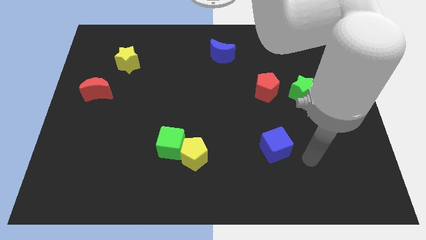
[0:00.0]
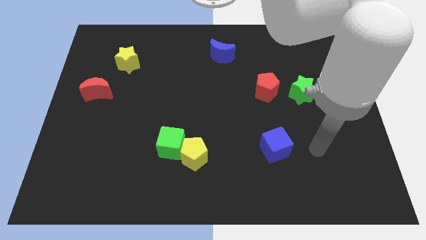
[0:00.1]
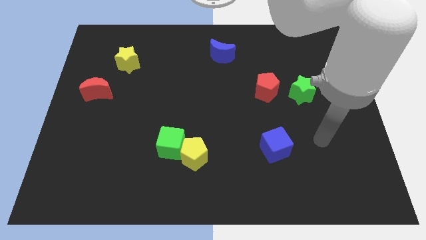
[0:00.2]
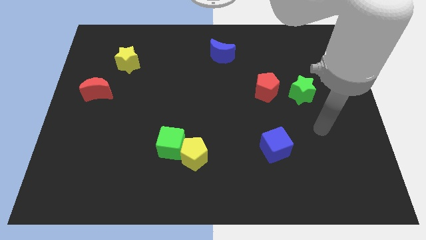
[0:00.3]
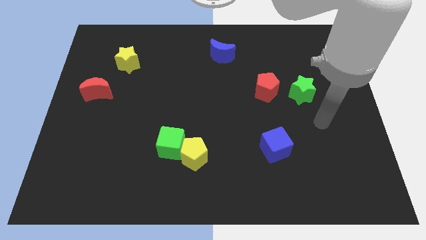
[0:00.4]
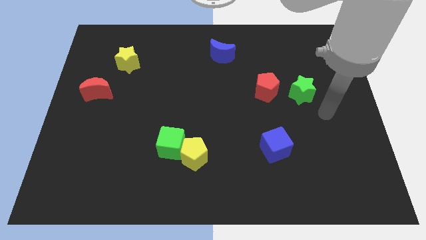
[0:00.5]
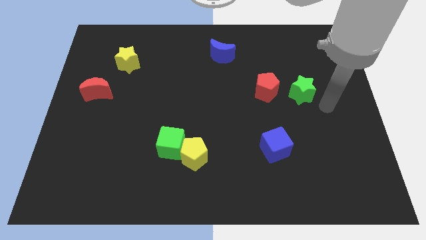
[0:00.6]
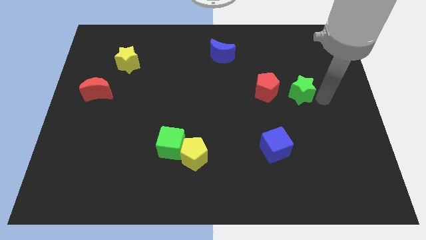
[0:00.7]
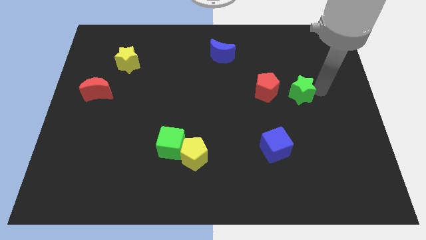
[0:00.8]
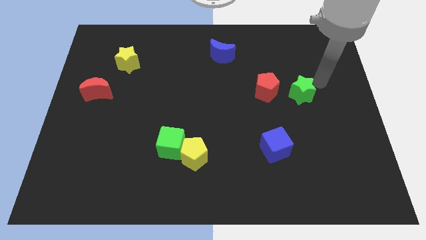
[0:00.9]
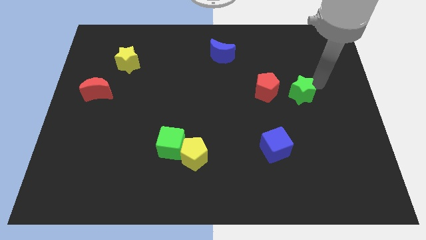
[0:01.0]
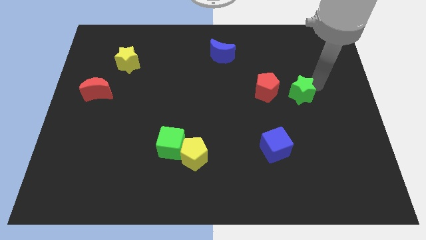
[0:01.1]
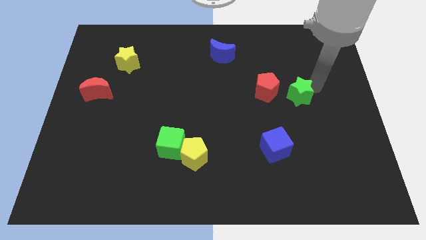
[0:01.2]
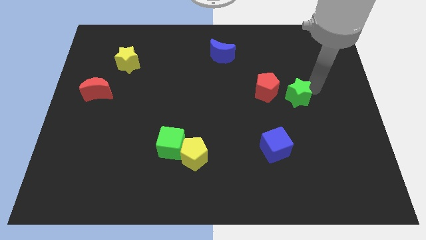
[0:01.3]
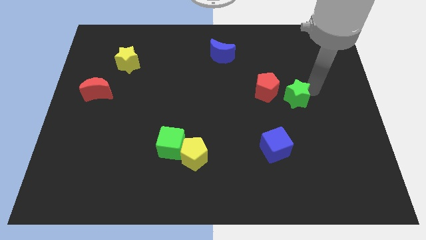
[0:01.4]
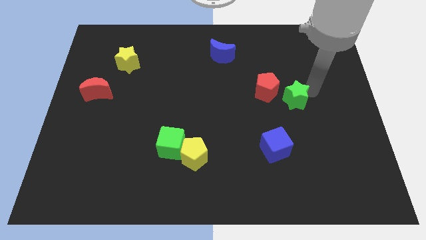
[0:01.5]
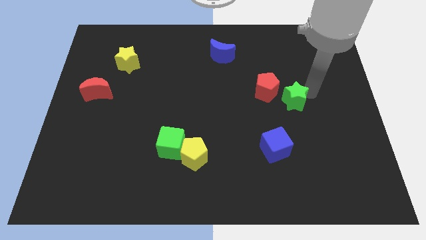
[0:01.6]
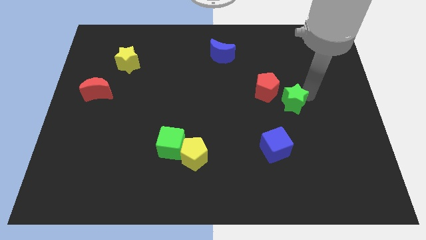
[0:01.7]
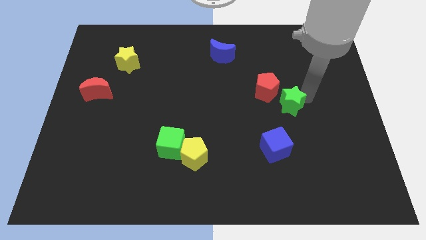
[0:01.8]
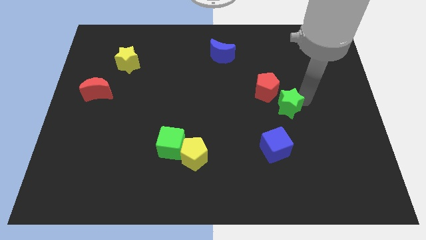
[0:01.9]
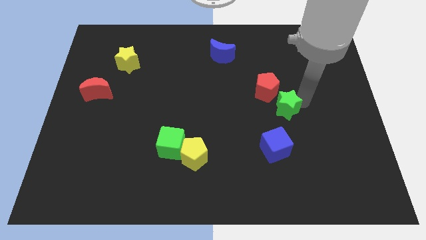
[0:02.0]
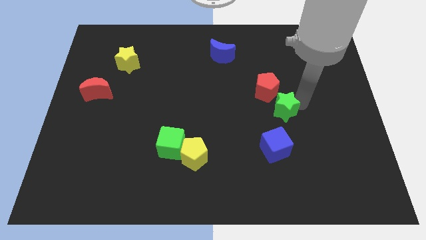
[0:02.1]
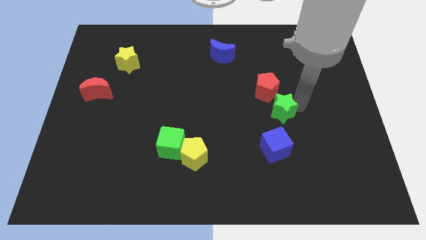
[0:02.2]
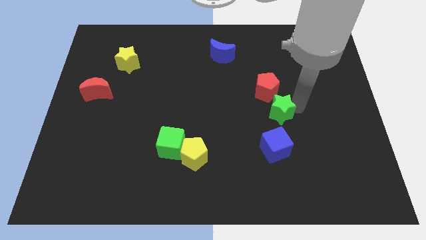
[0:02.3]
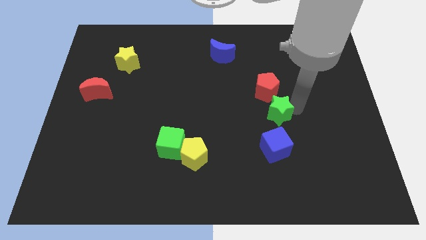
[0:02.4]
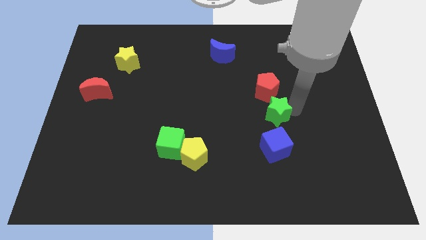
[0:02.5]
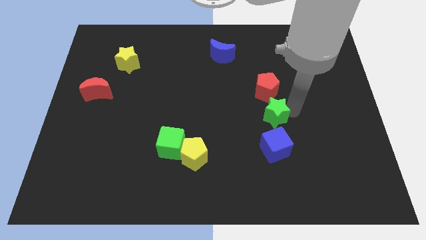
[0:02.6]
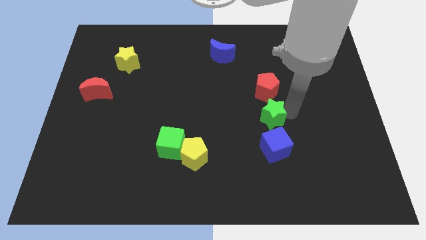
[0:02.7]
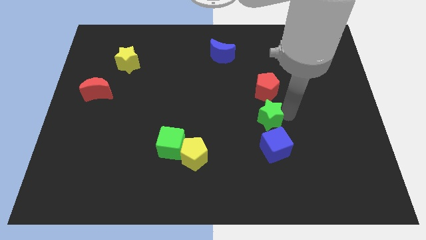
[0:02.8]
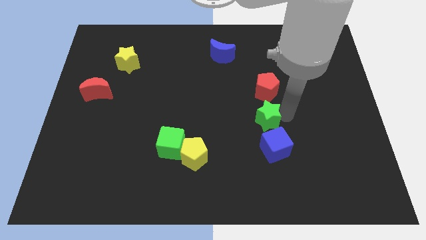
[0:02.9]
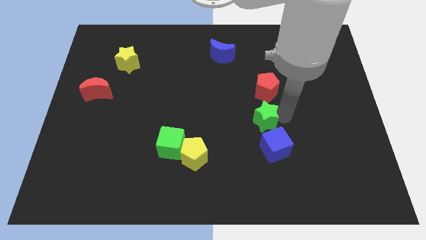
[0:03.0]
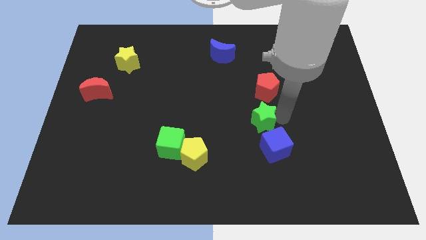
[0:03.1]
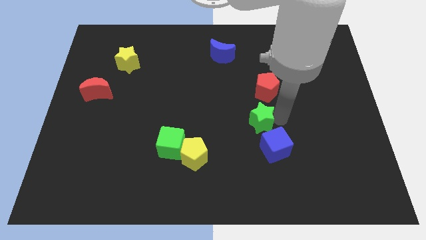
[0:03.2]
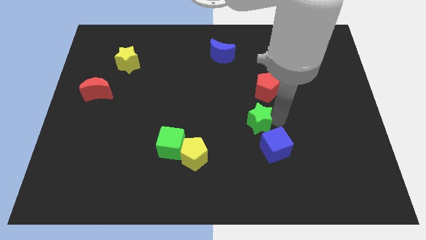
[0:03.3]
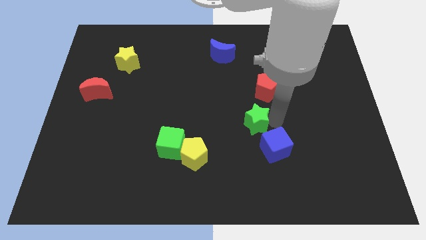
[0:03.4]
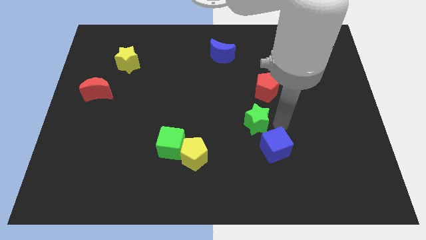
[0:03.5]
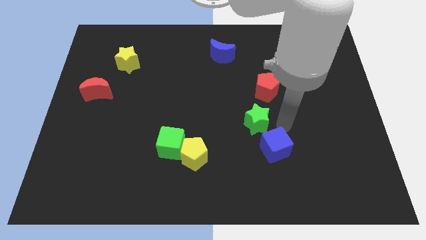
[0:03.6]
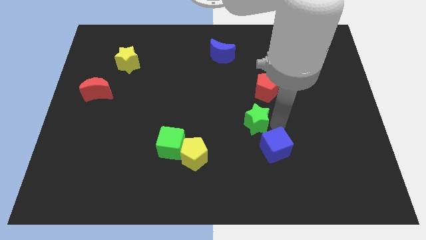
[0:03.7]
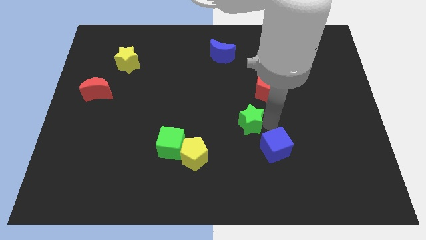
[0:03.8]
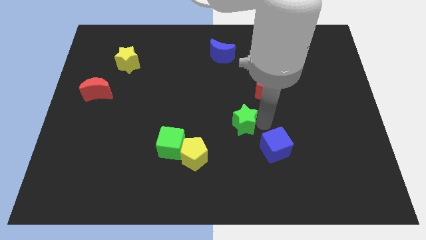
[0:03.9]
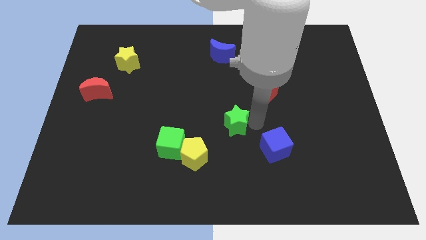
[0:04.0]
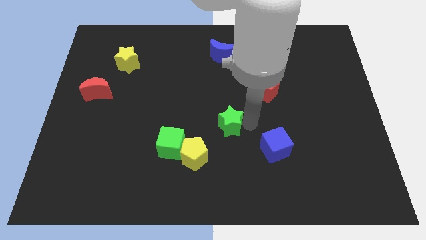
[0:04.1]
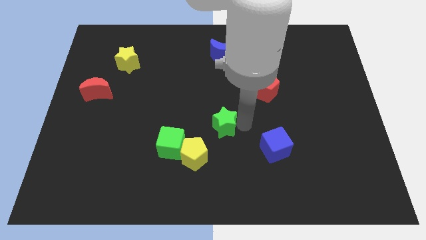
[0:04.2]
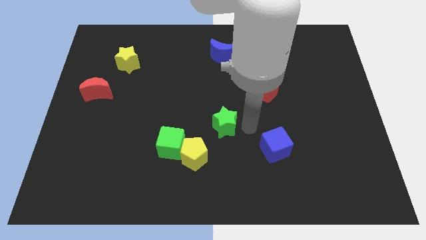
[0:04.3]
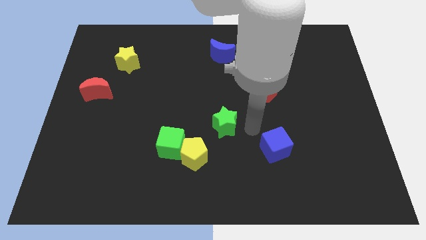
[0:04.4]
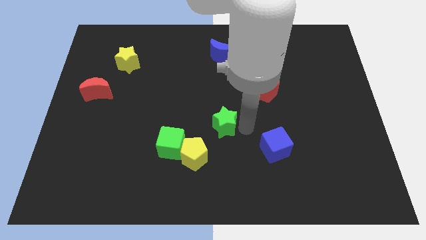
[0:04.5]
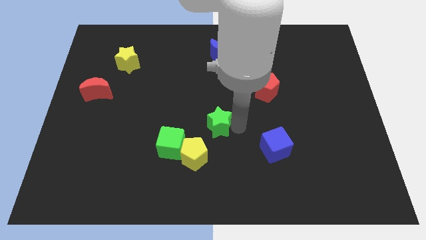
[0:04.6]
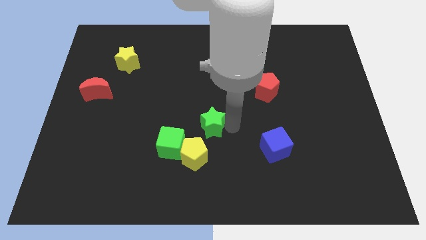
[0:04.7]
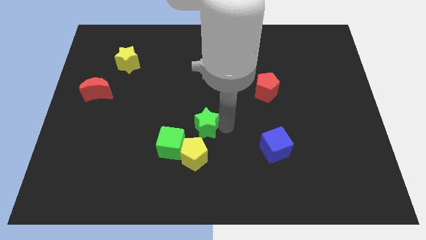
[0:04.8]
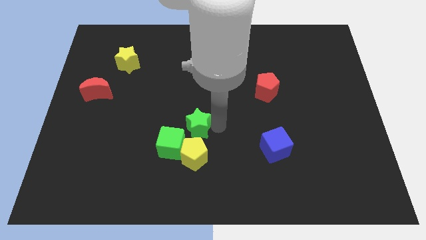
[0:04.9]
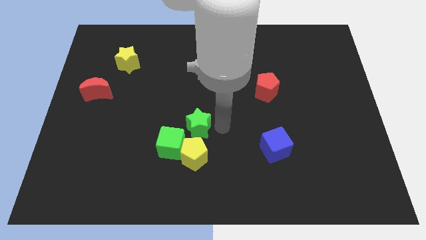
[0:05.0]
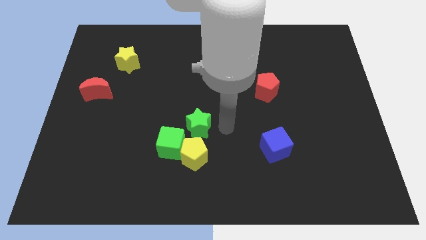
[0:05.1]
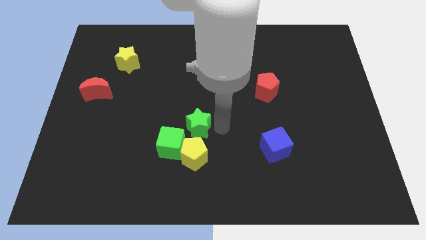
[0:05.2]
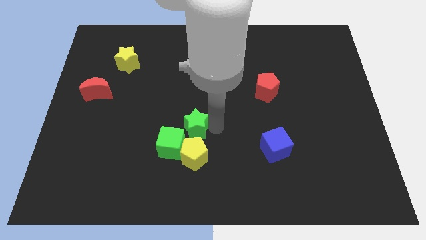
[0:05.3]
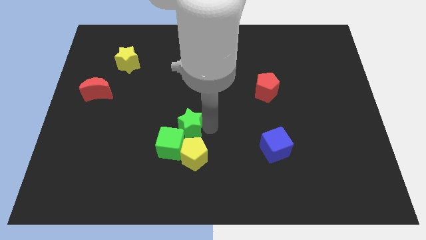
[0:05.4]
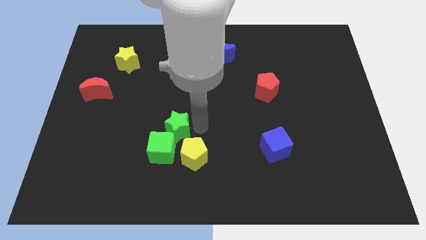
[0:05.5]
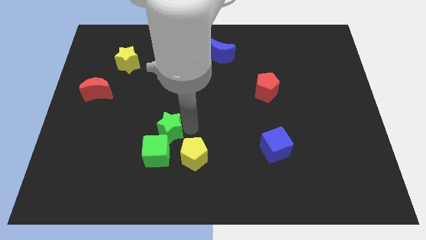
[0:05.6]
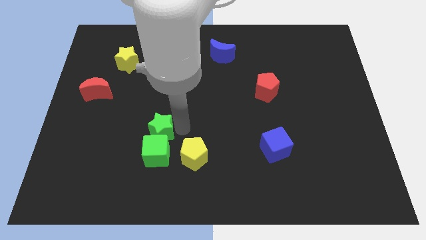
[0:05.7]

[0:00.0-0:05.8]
move the green star diagonally up and to the left of the green cube

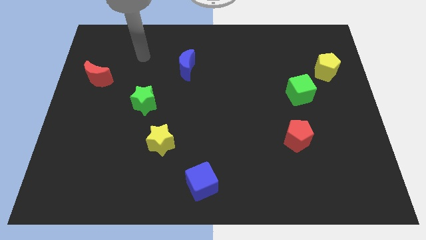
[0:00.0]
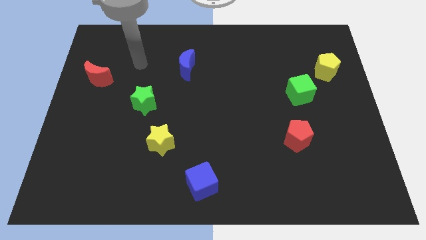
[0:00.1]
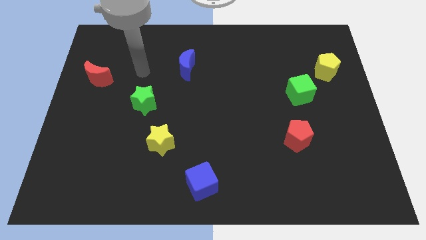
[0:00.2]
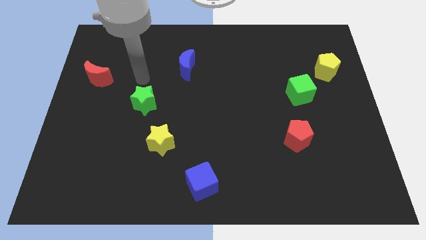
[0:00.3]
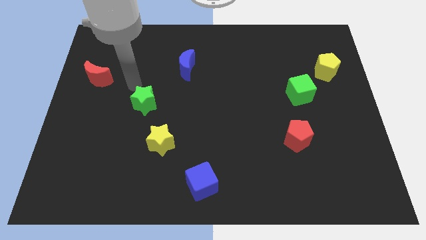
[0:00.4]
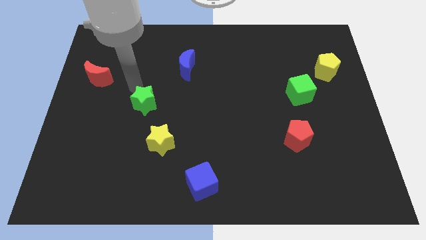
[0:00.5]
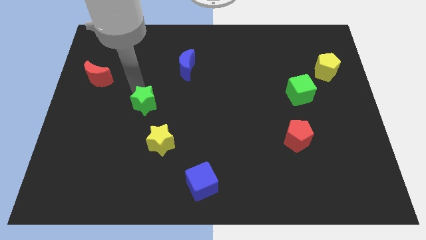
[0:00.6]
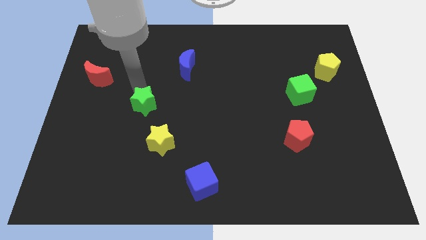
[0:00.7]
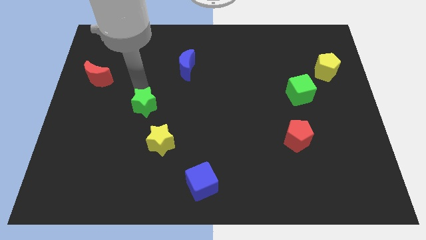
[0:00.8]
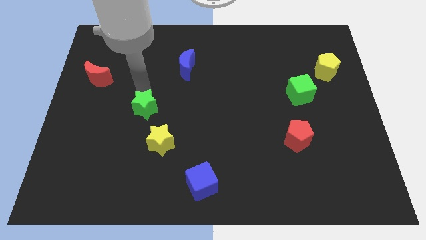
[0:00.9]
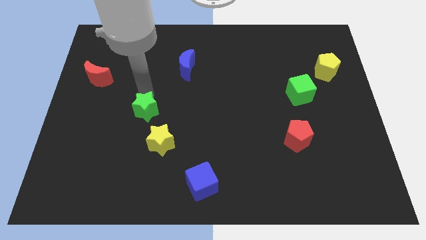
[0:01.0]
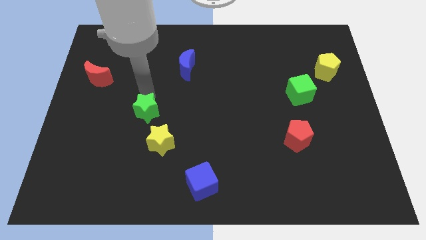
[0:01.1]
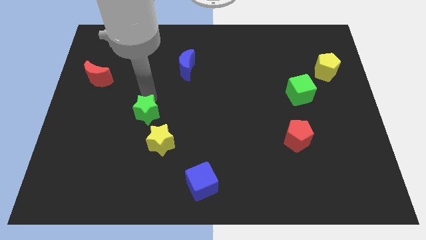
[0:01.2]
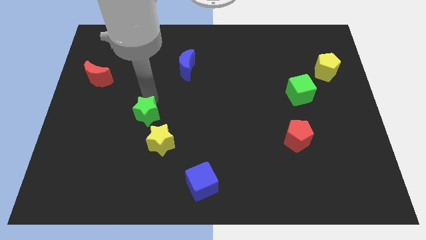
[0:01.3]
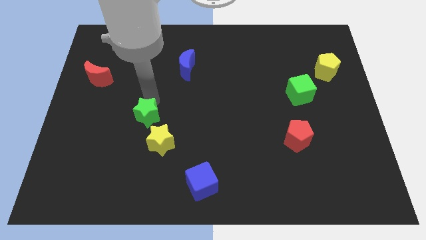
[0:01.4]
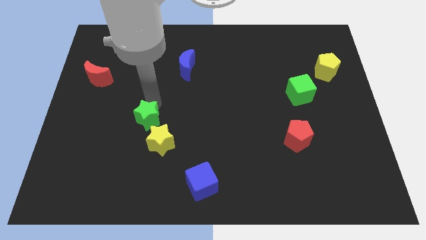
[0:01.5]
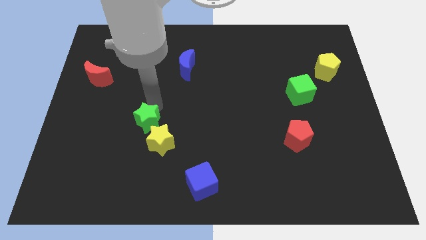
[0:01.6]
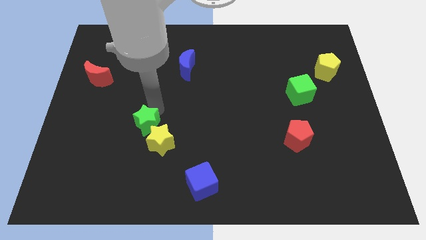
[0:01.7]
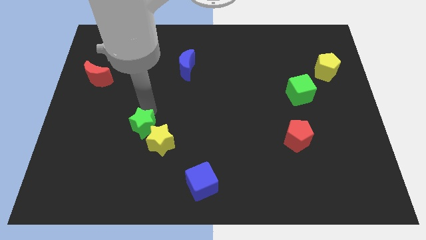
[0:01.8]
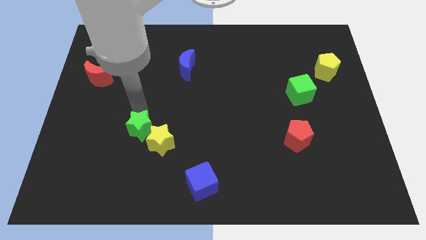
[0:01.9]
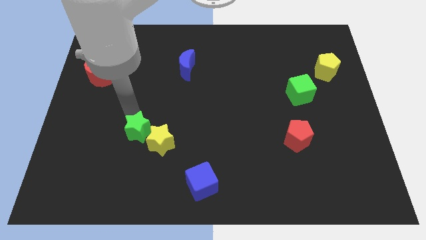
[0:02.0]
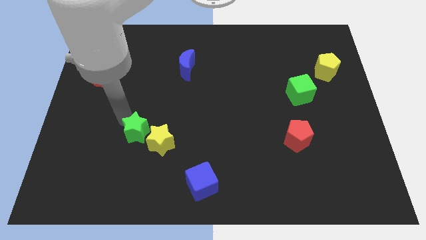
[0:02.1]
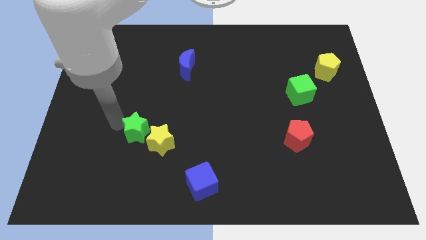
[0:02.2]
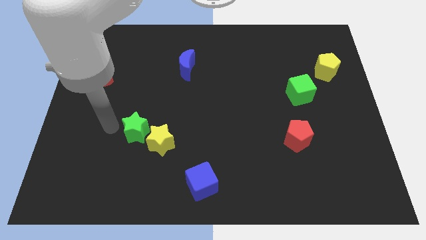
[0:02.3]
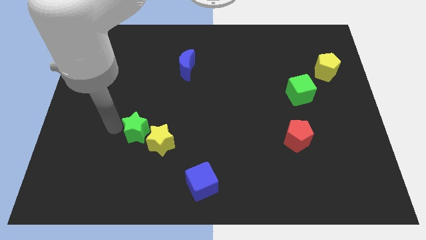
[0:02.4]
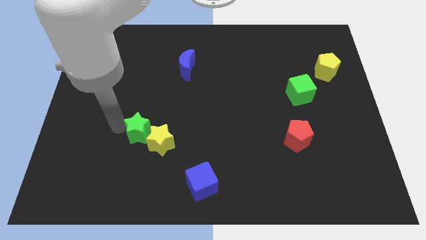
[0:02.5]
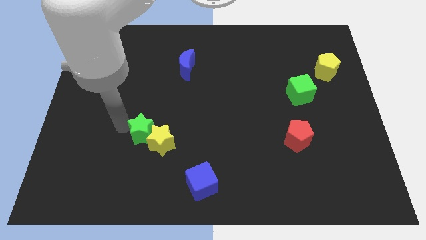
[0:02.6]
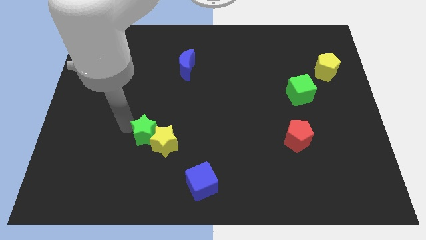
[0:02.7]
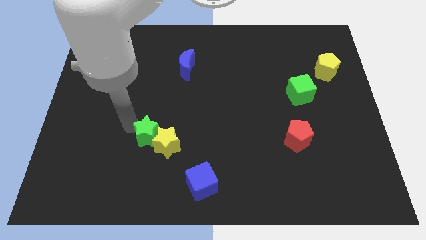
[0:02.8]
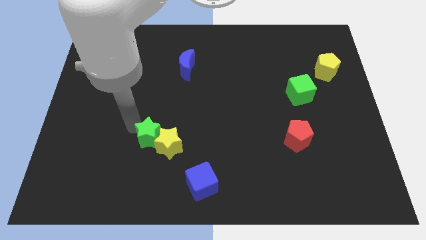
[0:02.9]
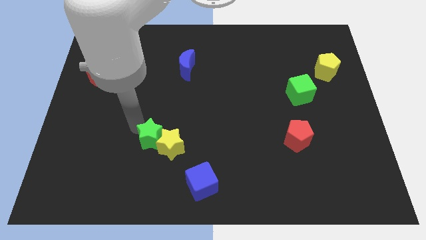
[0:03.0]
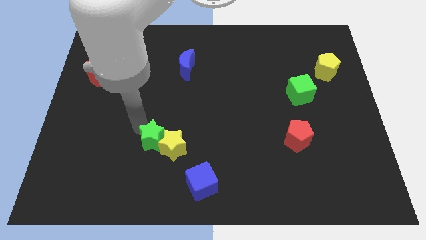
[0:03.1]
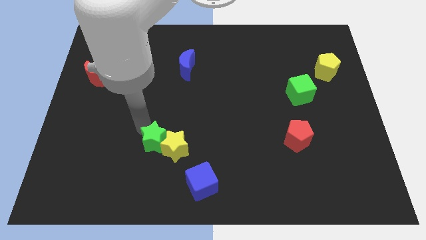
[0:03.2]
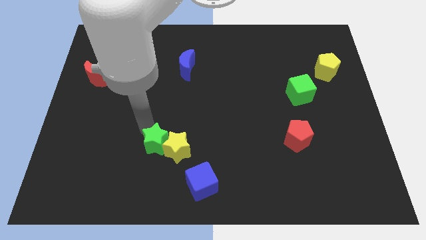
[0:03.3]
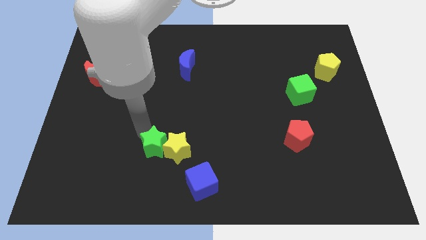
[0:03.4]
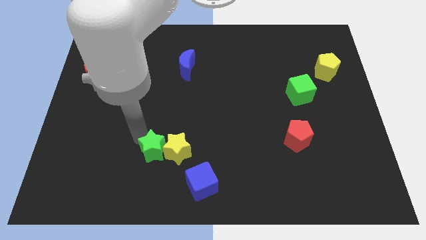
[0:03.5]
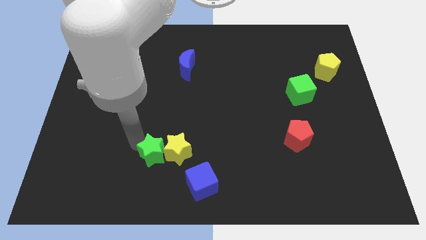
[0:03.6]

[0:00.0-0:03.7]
slide the green star diagonally up and to the left of the blue cube
